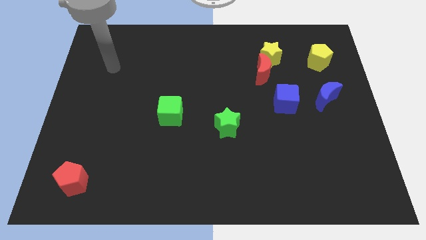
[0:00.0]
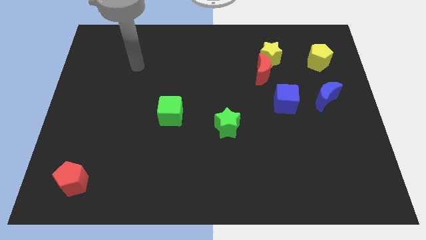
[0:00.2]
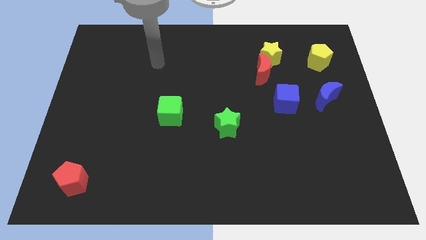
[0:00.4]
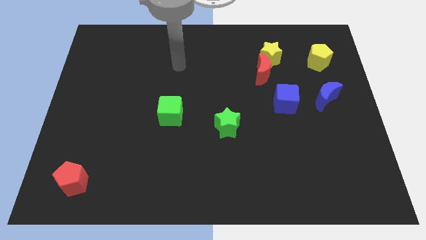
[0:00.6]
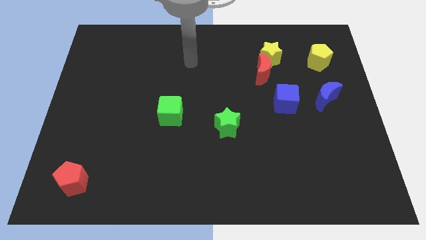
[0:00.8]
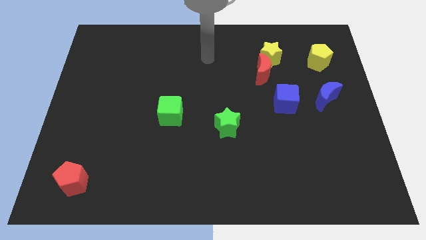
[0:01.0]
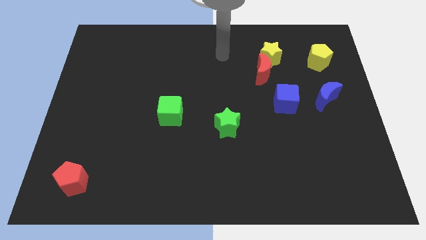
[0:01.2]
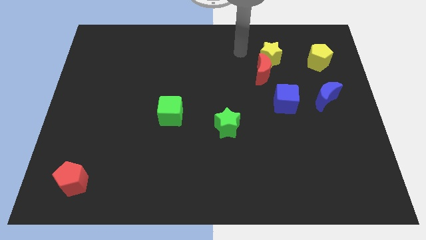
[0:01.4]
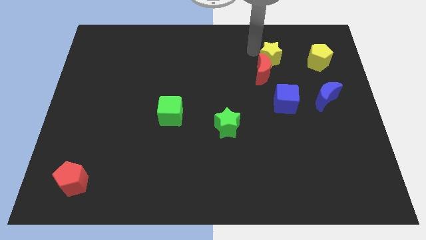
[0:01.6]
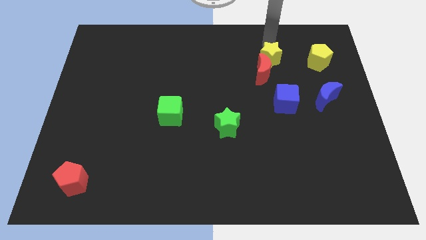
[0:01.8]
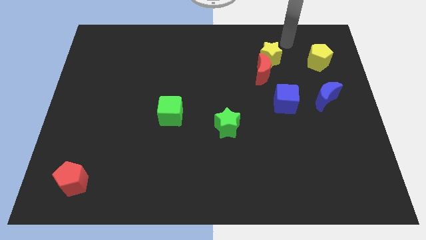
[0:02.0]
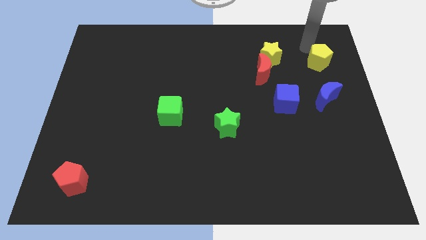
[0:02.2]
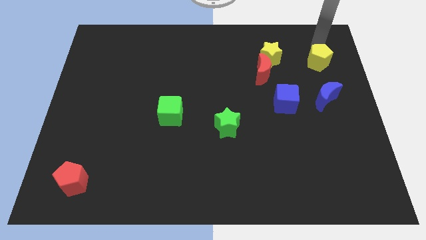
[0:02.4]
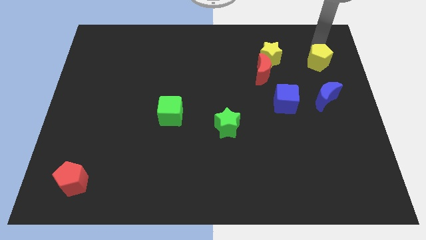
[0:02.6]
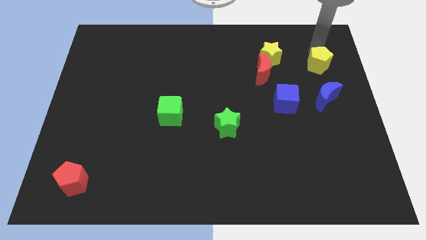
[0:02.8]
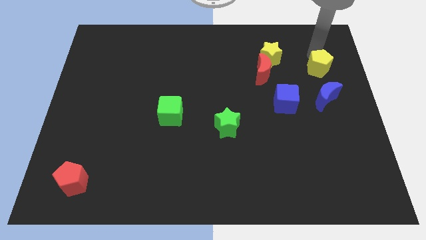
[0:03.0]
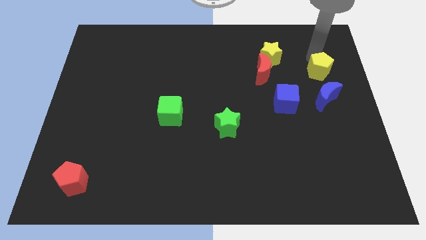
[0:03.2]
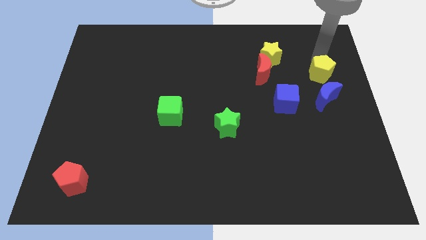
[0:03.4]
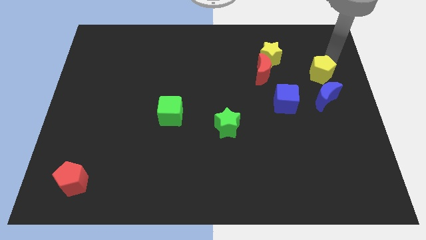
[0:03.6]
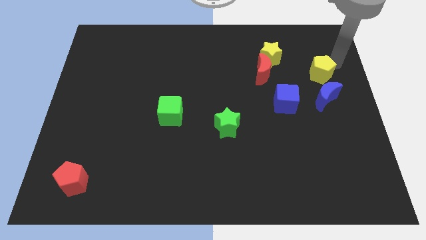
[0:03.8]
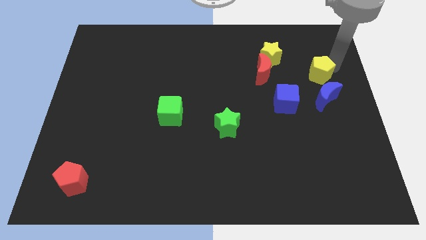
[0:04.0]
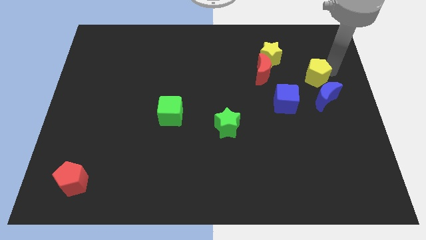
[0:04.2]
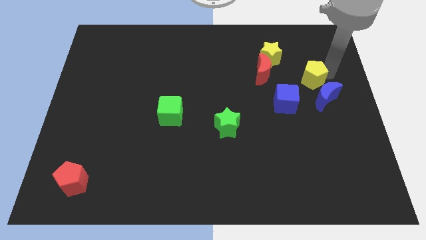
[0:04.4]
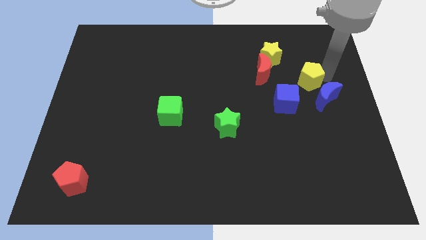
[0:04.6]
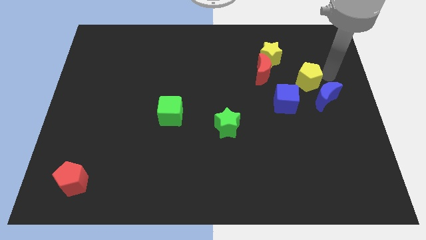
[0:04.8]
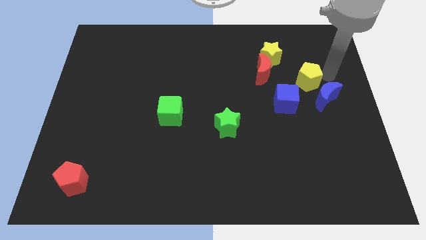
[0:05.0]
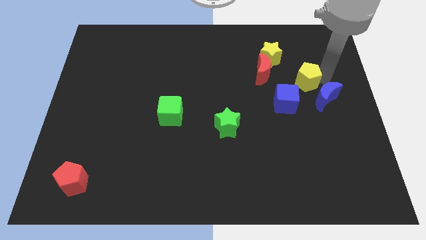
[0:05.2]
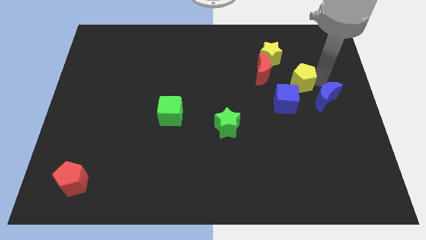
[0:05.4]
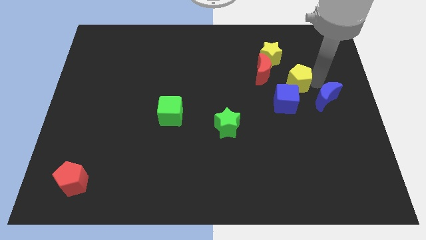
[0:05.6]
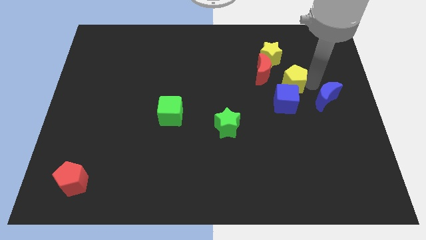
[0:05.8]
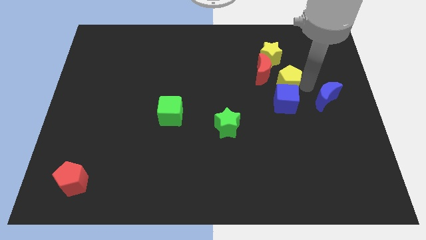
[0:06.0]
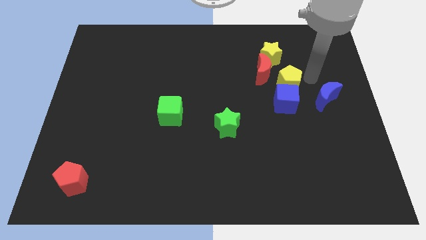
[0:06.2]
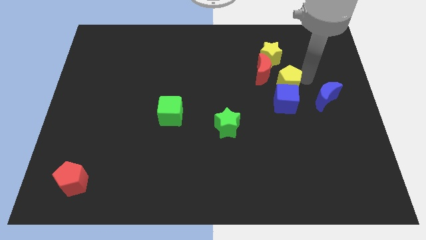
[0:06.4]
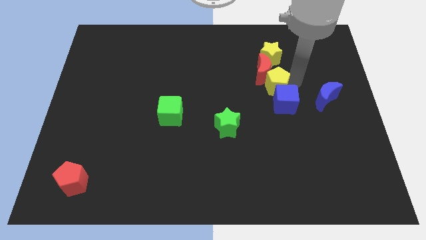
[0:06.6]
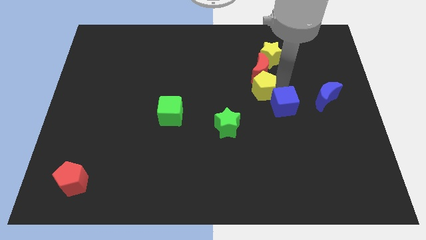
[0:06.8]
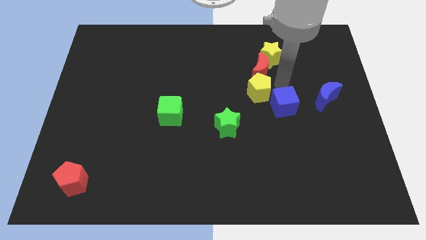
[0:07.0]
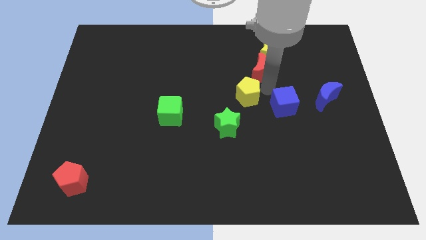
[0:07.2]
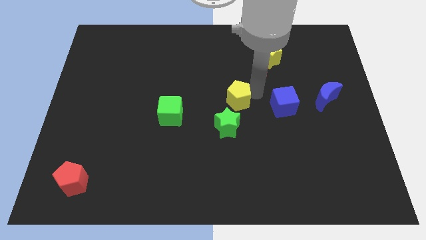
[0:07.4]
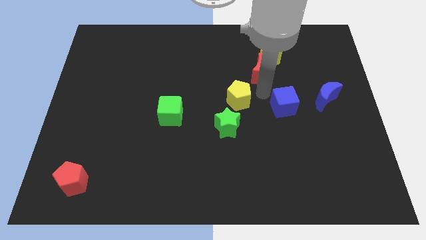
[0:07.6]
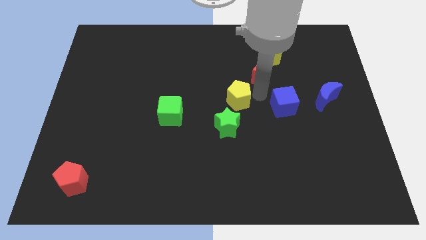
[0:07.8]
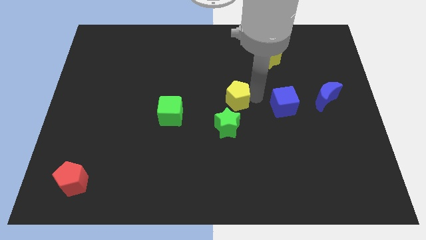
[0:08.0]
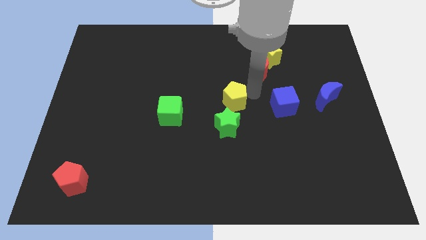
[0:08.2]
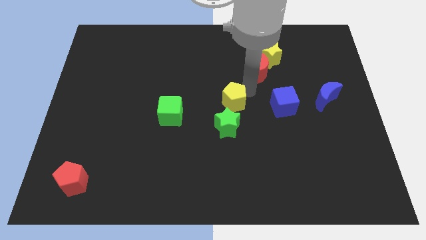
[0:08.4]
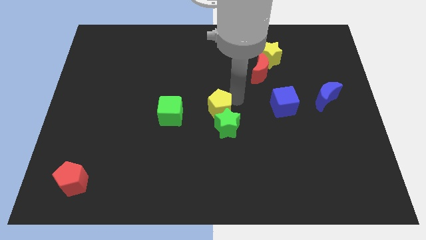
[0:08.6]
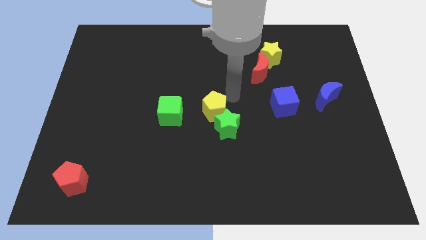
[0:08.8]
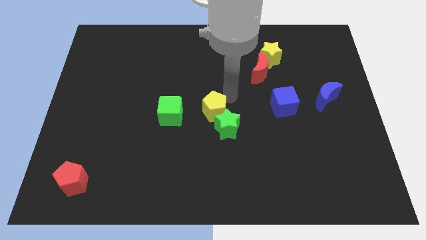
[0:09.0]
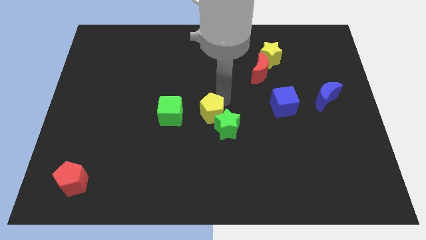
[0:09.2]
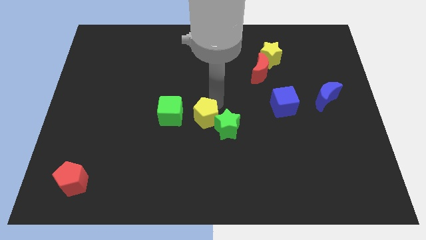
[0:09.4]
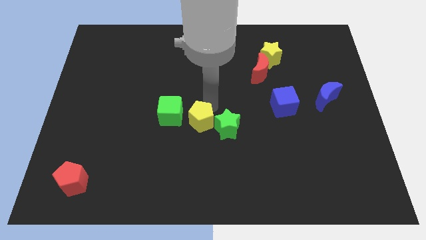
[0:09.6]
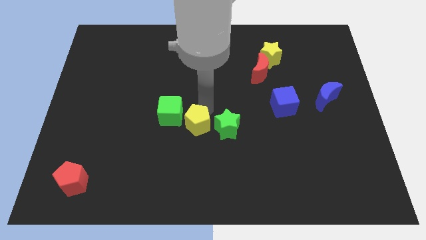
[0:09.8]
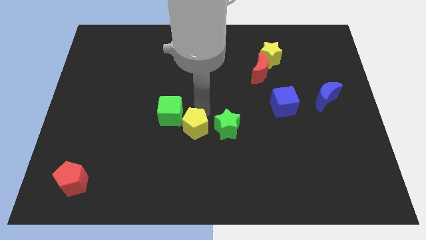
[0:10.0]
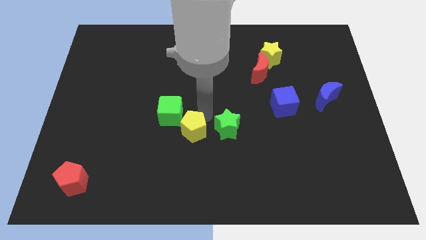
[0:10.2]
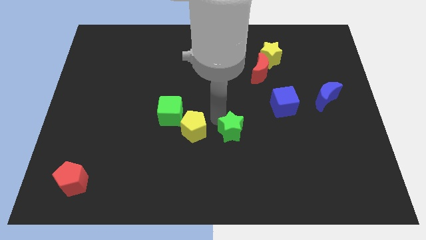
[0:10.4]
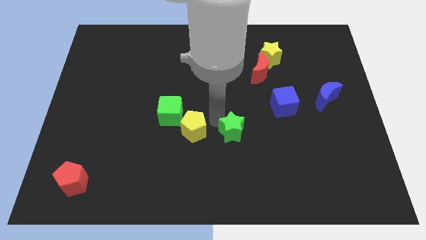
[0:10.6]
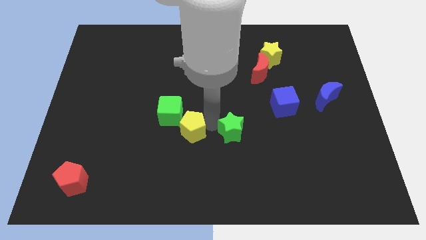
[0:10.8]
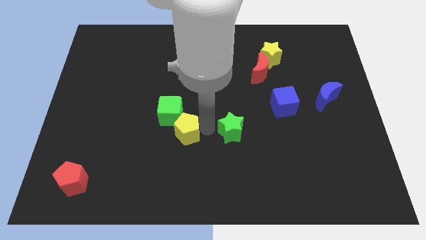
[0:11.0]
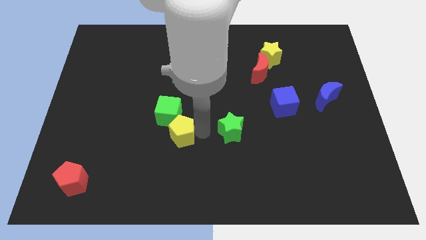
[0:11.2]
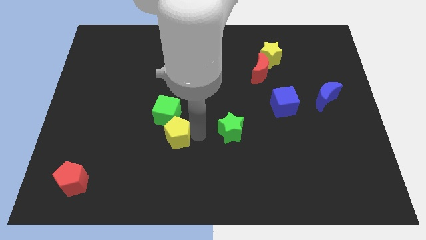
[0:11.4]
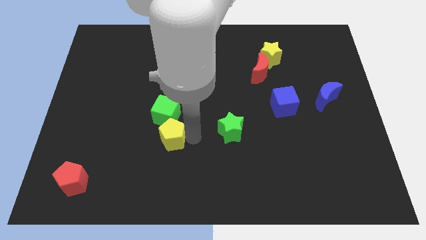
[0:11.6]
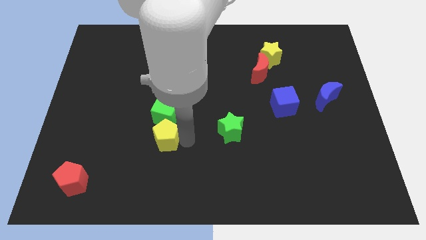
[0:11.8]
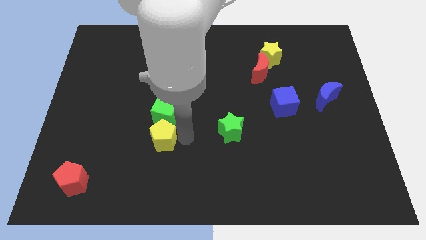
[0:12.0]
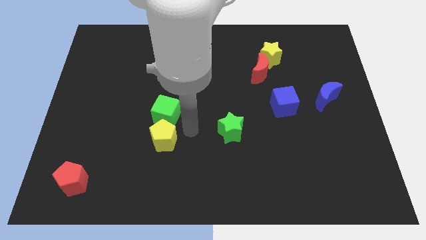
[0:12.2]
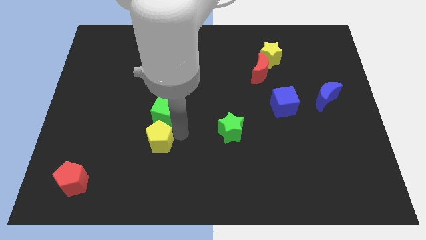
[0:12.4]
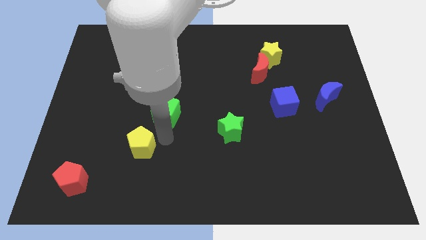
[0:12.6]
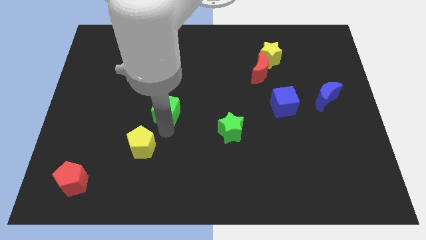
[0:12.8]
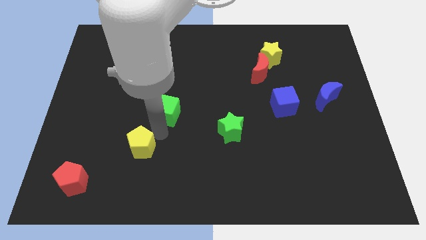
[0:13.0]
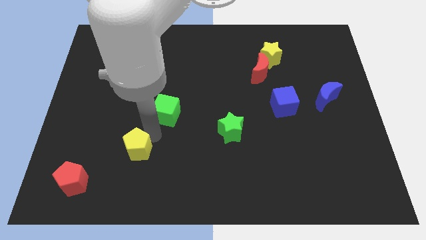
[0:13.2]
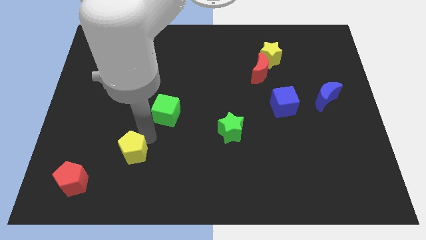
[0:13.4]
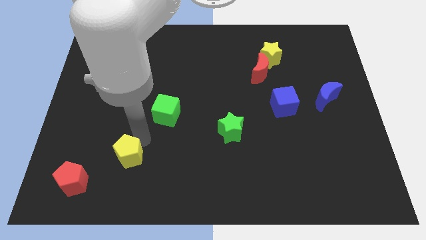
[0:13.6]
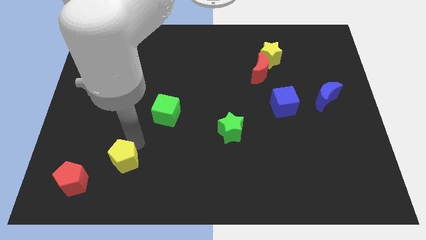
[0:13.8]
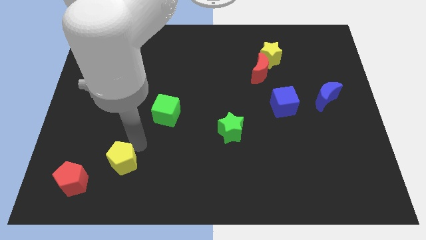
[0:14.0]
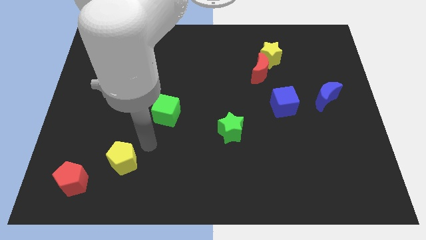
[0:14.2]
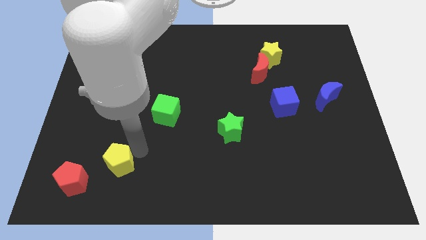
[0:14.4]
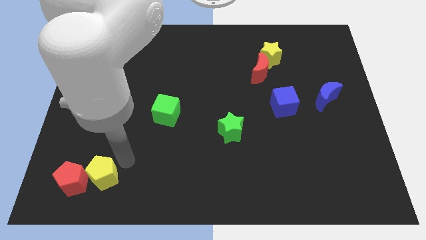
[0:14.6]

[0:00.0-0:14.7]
move the yellow pentagon close to the red pentagon

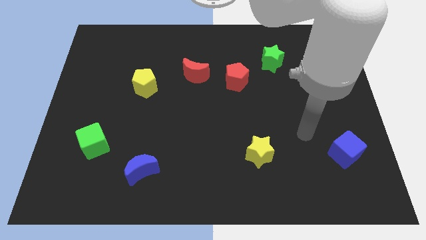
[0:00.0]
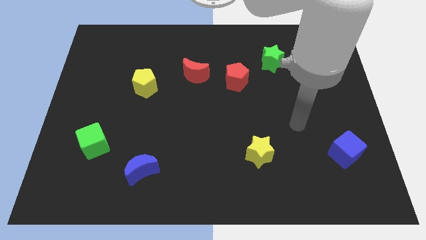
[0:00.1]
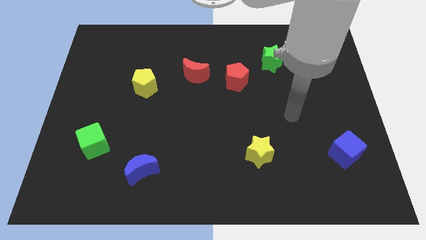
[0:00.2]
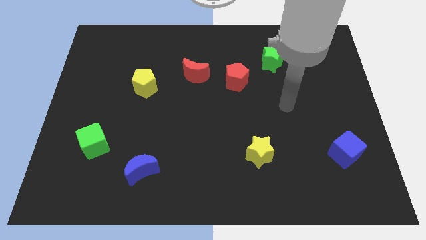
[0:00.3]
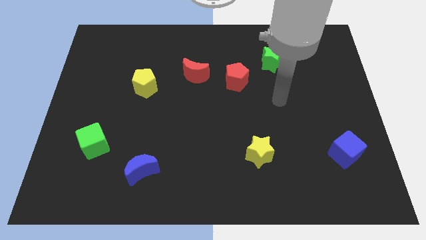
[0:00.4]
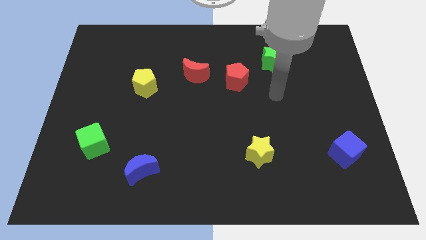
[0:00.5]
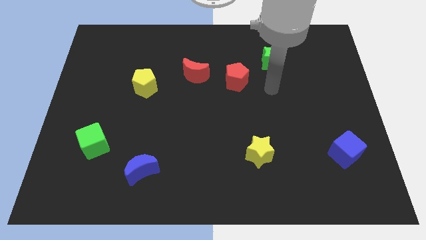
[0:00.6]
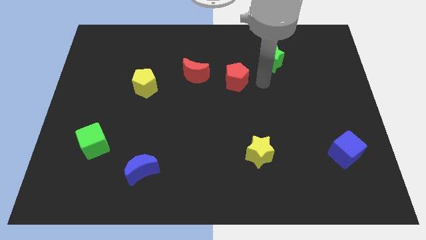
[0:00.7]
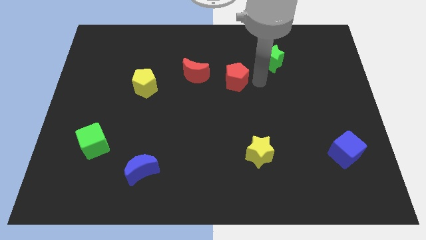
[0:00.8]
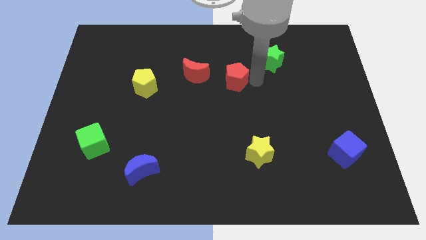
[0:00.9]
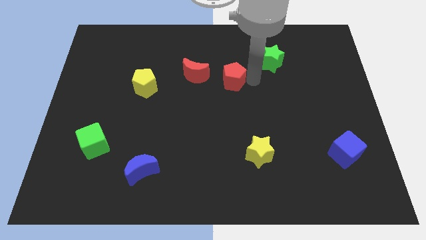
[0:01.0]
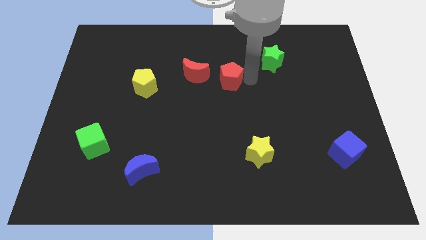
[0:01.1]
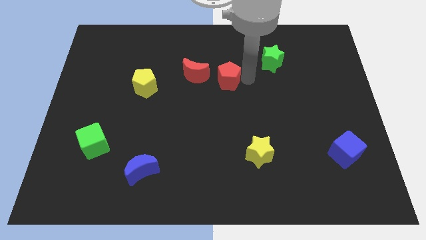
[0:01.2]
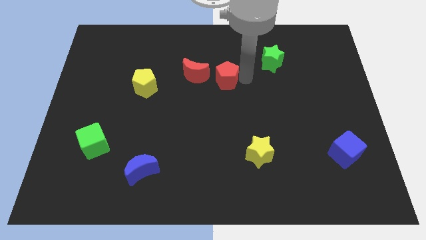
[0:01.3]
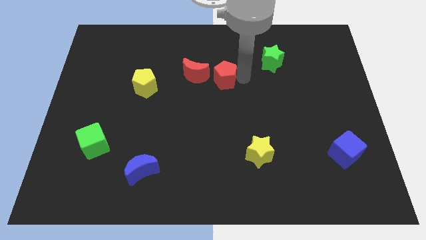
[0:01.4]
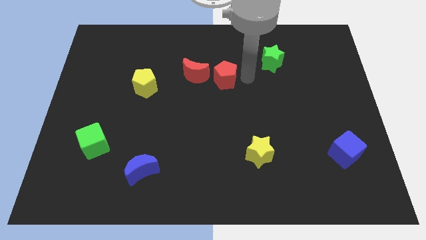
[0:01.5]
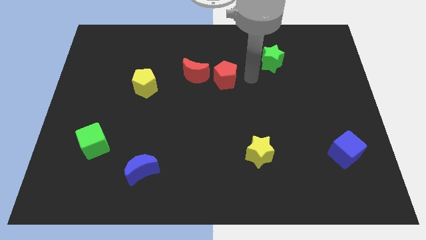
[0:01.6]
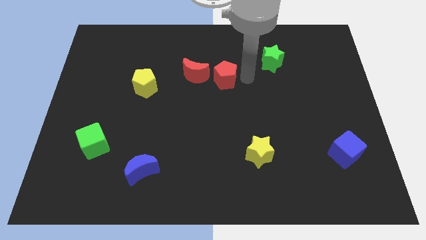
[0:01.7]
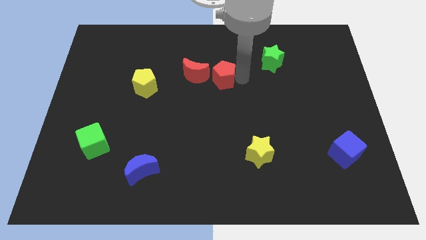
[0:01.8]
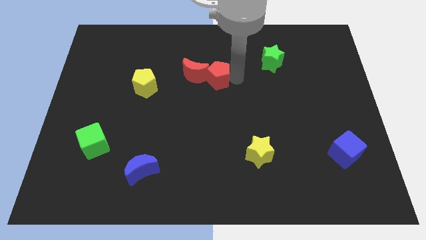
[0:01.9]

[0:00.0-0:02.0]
slide the red pentagon to the red moon
